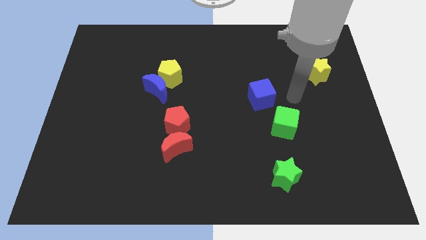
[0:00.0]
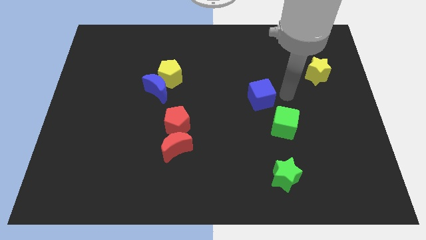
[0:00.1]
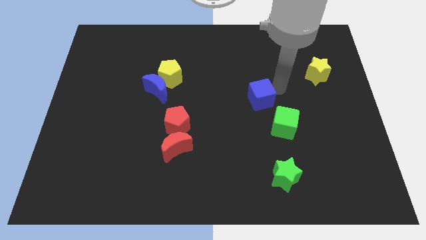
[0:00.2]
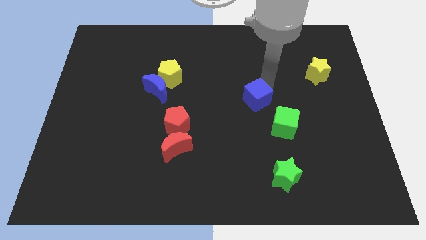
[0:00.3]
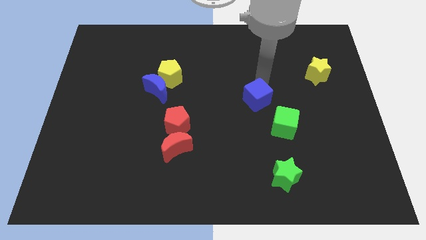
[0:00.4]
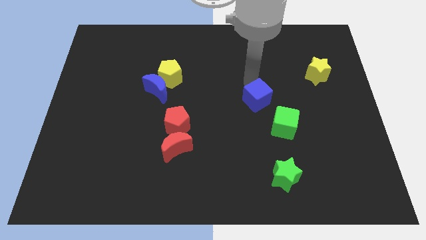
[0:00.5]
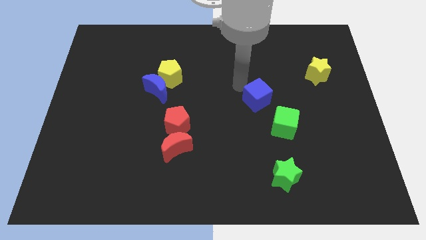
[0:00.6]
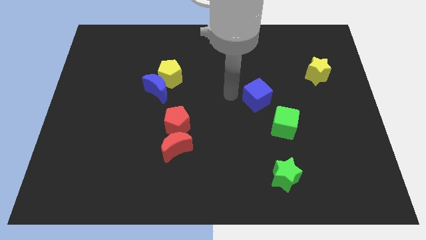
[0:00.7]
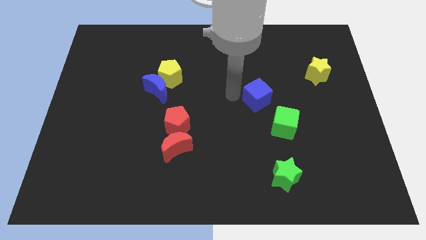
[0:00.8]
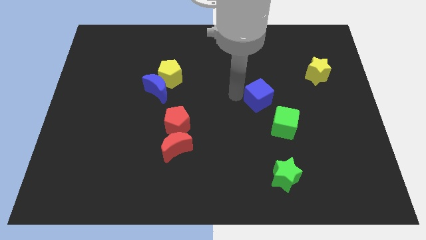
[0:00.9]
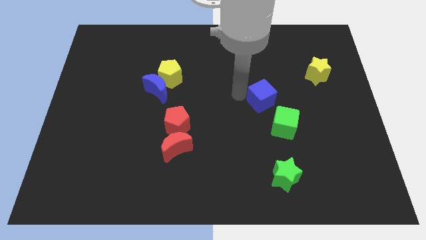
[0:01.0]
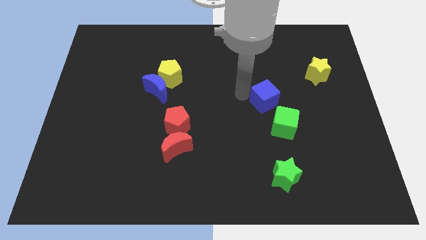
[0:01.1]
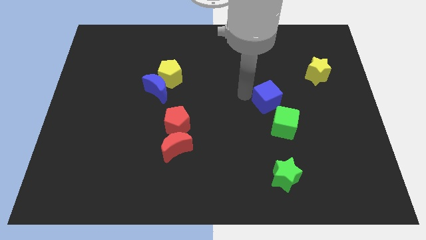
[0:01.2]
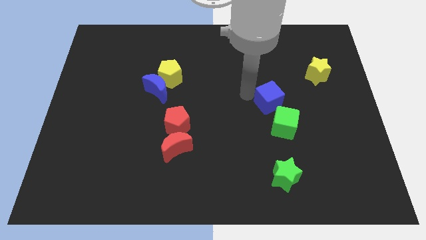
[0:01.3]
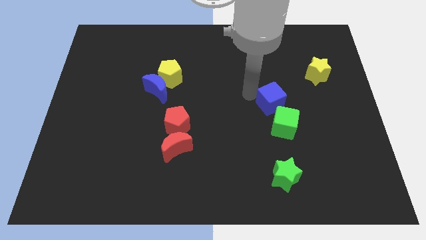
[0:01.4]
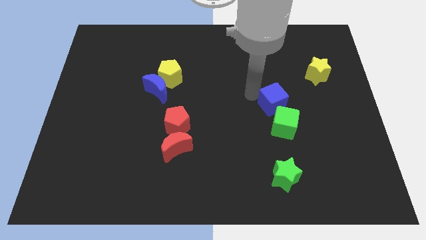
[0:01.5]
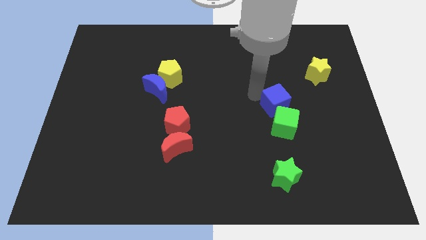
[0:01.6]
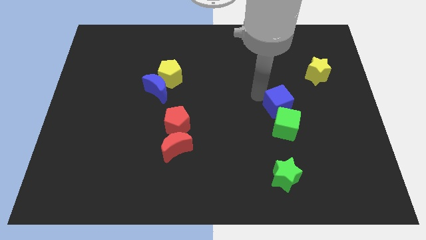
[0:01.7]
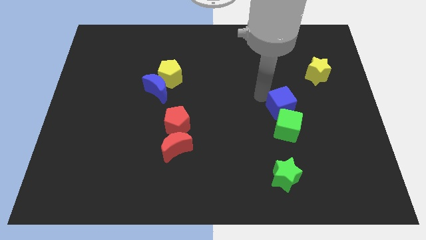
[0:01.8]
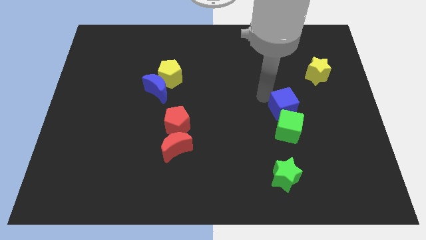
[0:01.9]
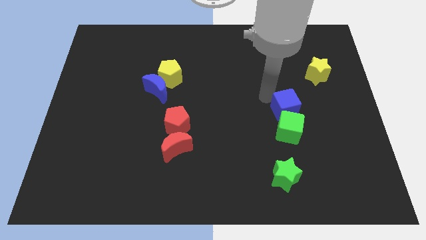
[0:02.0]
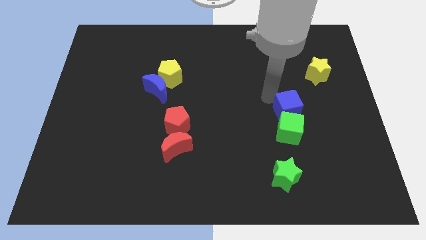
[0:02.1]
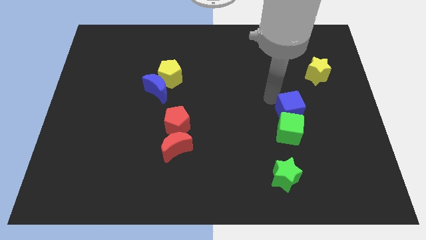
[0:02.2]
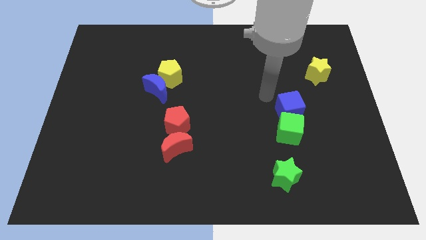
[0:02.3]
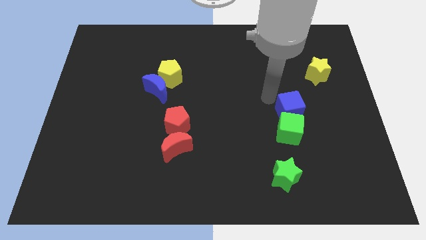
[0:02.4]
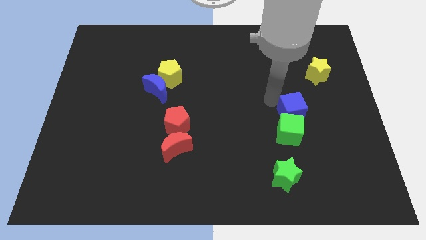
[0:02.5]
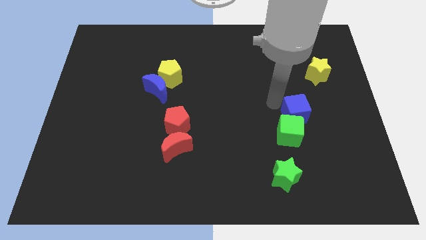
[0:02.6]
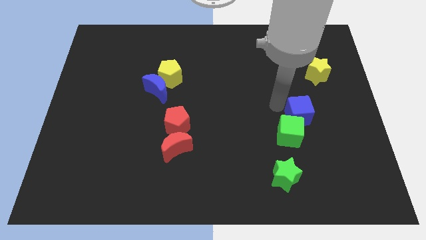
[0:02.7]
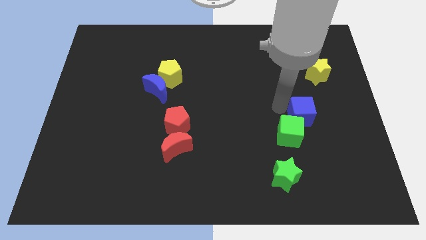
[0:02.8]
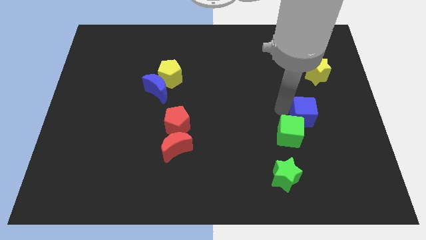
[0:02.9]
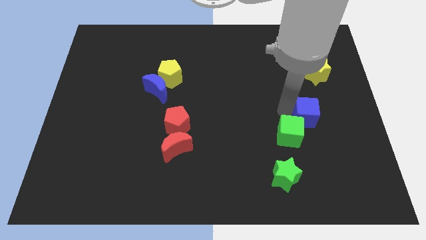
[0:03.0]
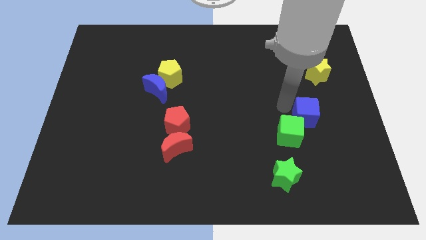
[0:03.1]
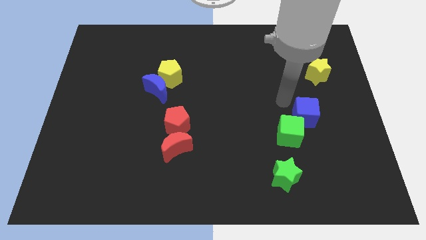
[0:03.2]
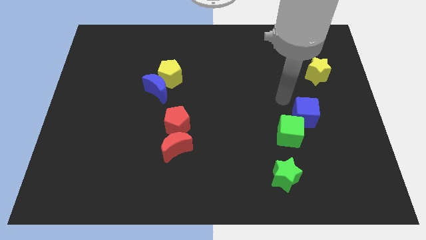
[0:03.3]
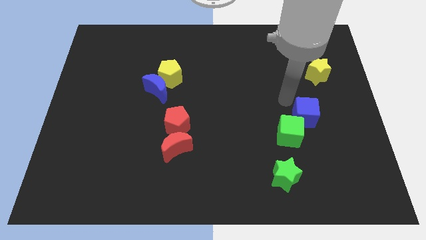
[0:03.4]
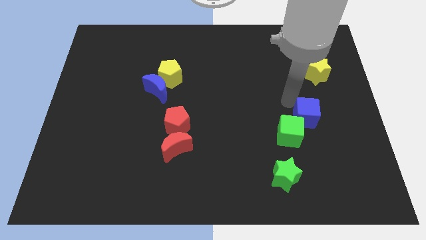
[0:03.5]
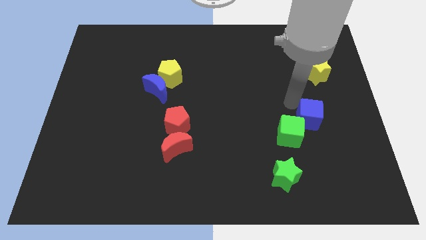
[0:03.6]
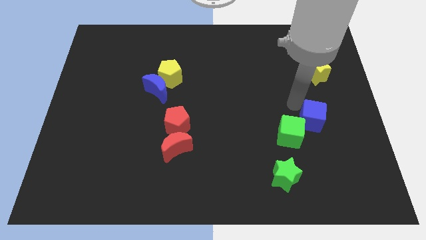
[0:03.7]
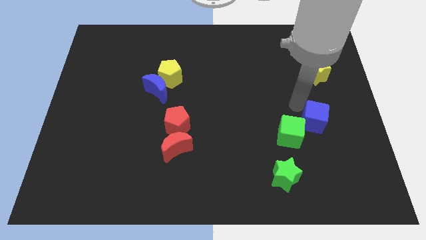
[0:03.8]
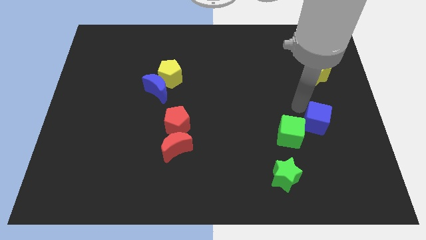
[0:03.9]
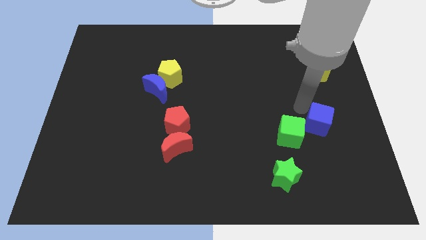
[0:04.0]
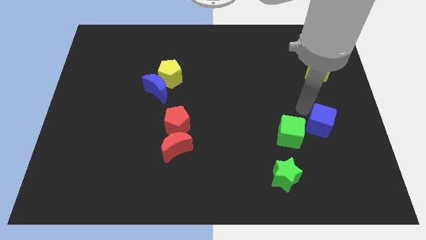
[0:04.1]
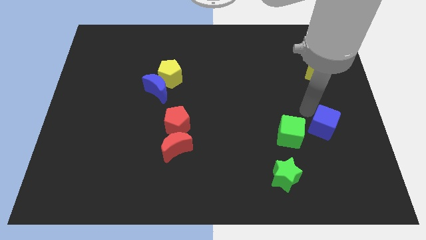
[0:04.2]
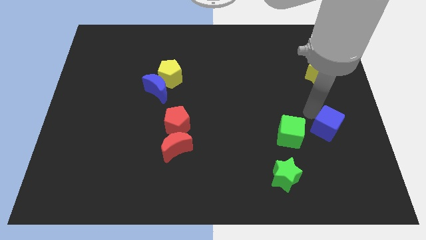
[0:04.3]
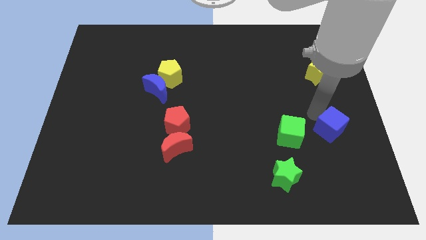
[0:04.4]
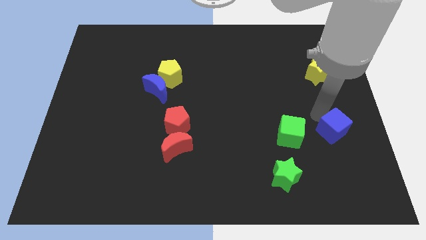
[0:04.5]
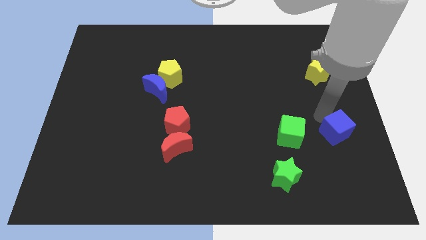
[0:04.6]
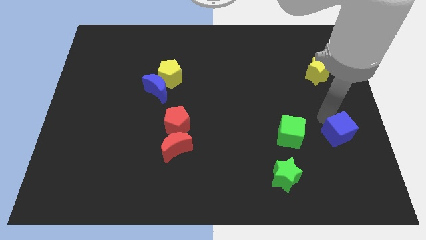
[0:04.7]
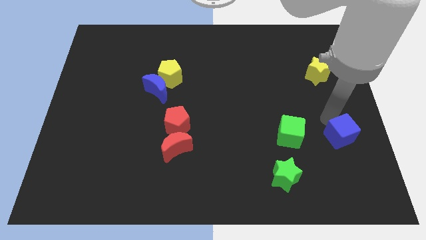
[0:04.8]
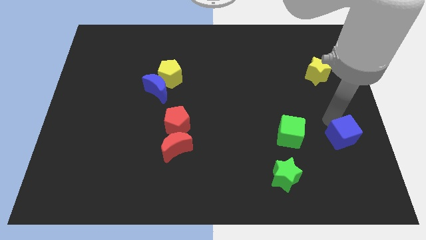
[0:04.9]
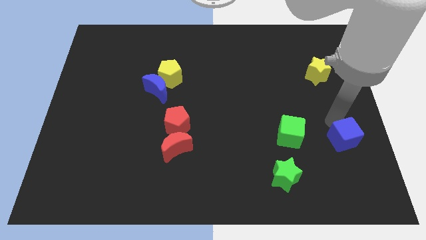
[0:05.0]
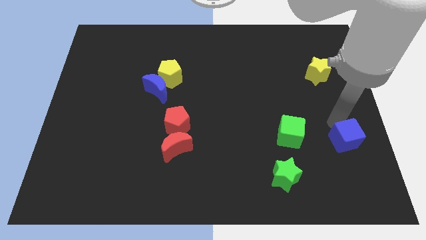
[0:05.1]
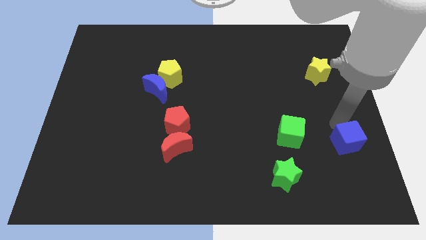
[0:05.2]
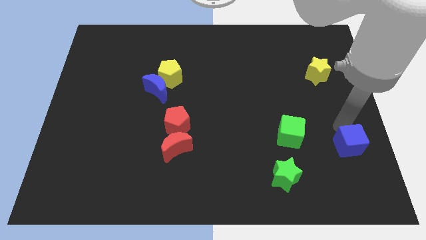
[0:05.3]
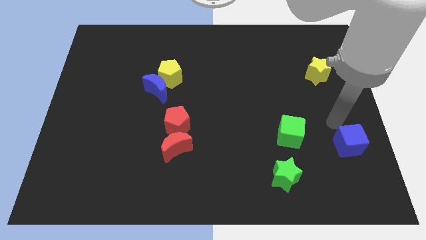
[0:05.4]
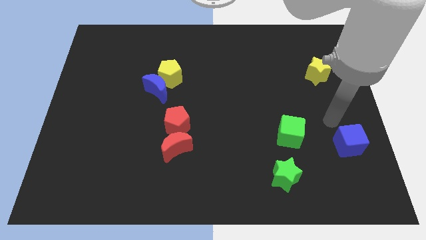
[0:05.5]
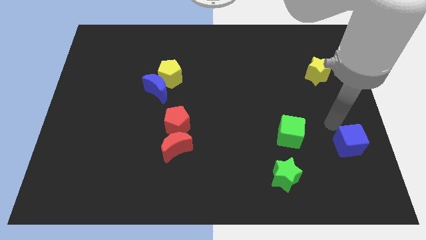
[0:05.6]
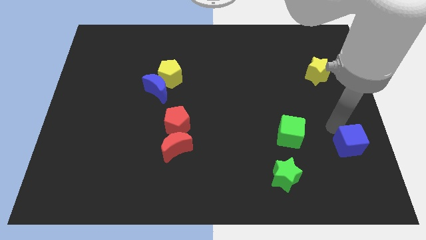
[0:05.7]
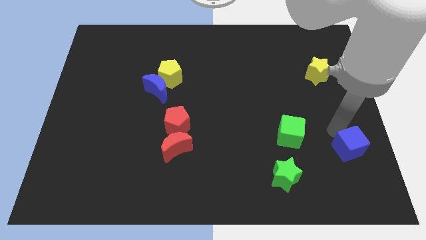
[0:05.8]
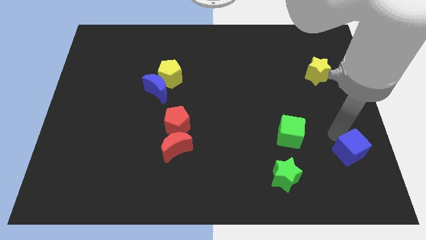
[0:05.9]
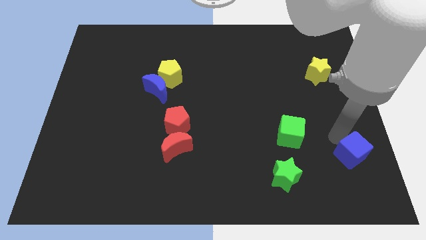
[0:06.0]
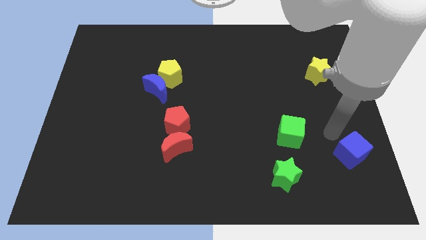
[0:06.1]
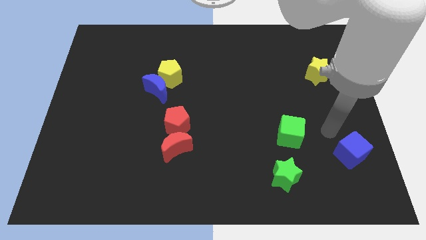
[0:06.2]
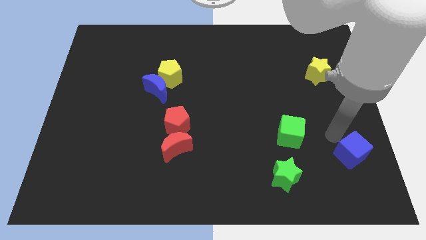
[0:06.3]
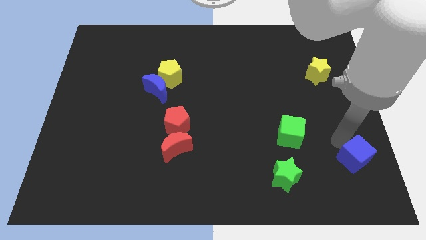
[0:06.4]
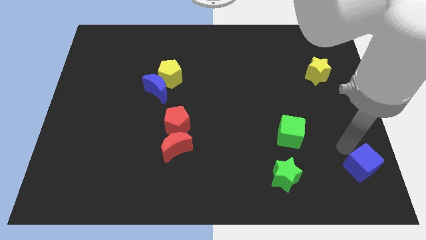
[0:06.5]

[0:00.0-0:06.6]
move the blue cube to the lower right corner

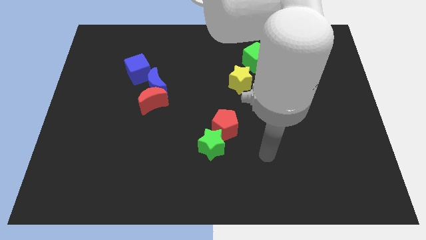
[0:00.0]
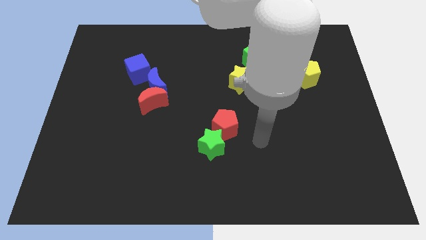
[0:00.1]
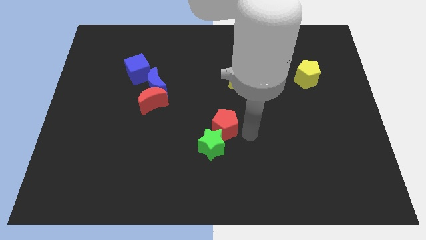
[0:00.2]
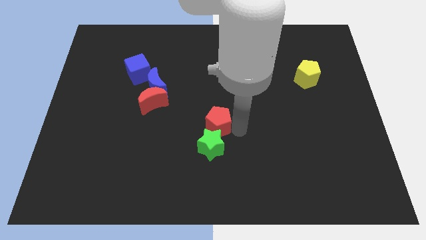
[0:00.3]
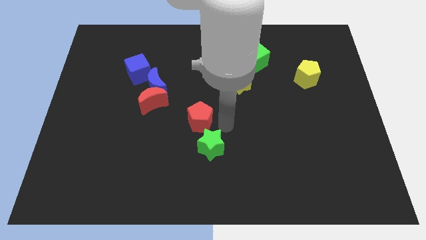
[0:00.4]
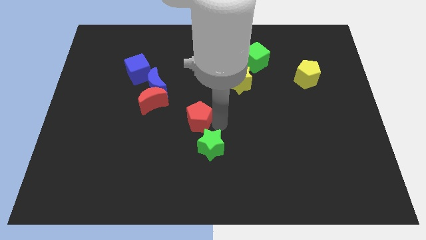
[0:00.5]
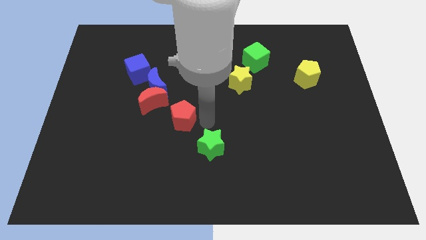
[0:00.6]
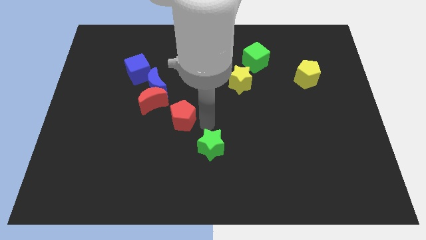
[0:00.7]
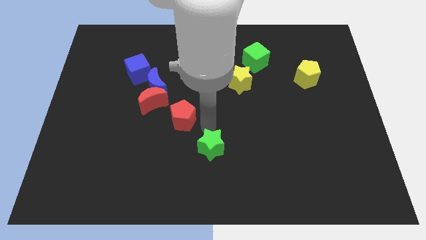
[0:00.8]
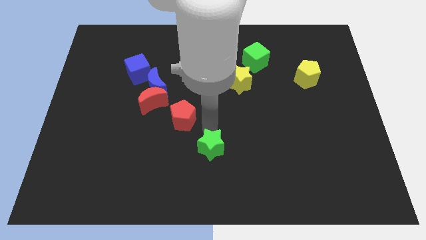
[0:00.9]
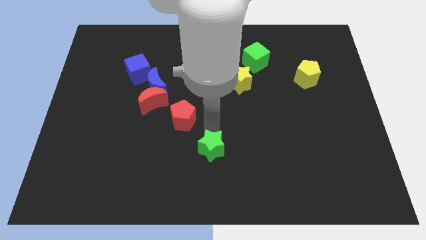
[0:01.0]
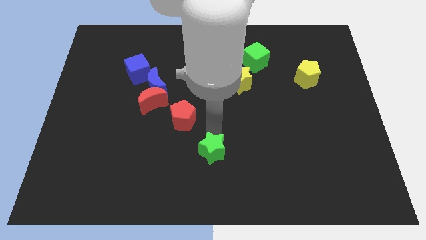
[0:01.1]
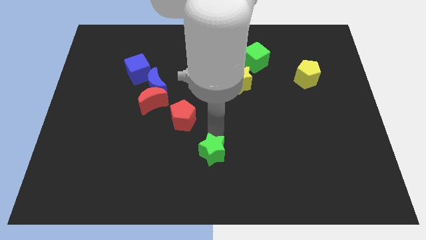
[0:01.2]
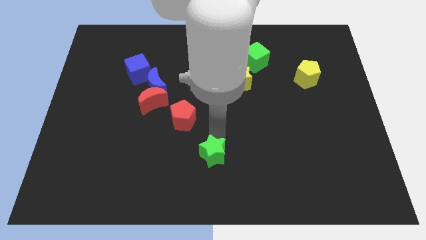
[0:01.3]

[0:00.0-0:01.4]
push the green star to the bottom
